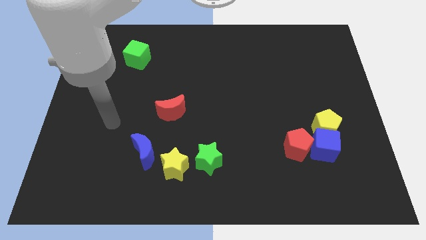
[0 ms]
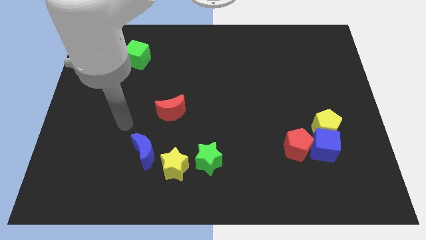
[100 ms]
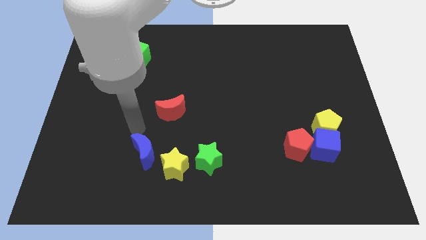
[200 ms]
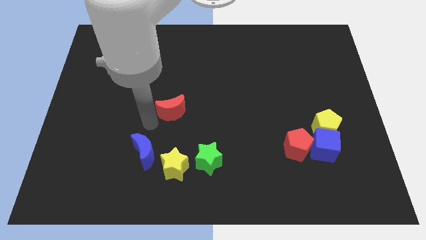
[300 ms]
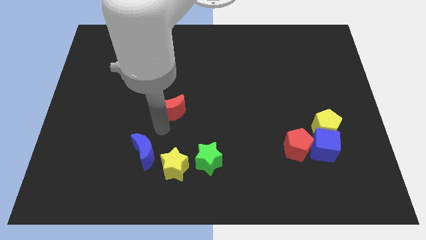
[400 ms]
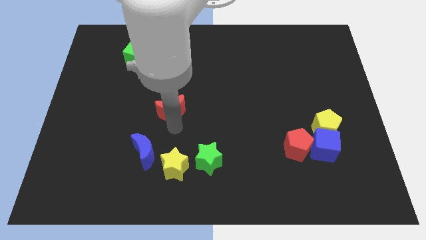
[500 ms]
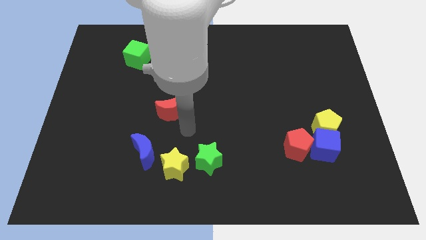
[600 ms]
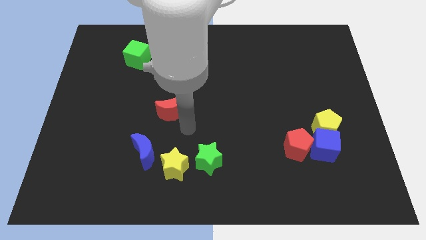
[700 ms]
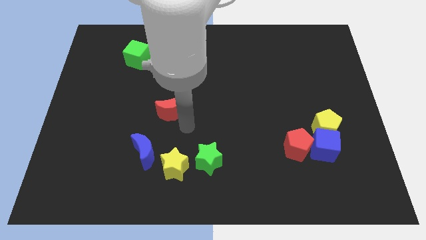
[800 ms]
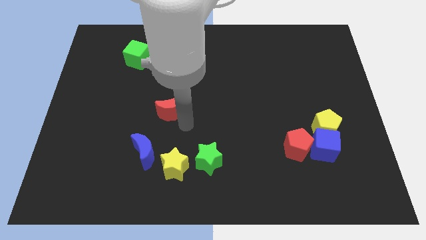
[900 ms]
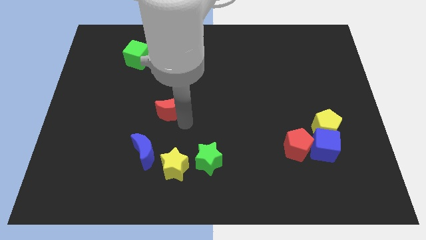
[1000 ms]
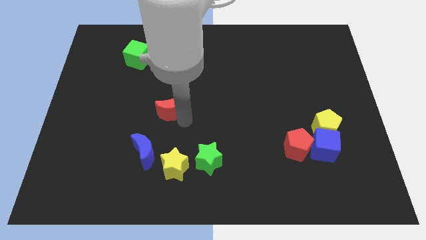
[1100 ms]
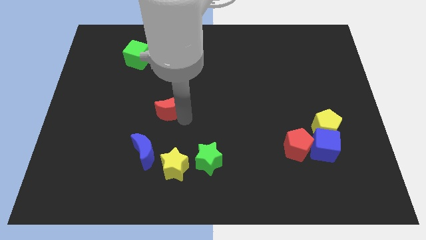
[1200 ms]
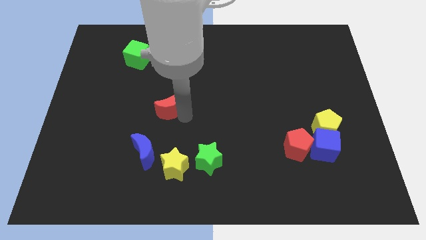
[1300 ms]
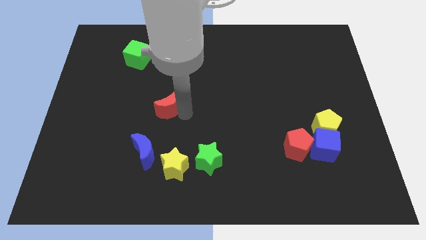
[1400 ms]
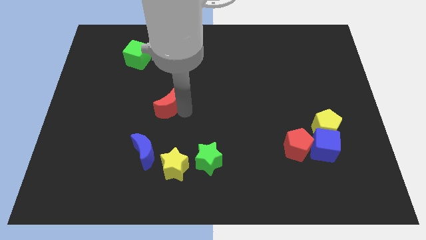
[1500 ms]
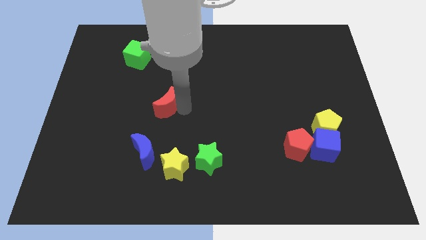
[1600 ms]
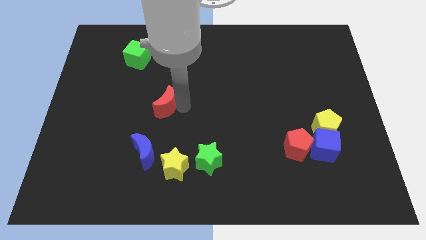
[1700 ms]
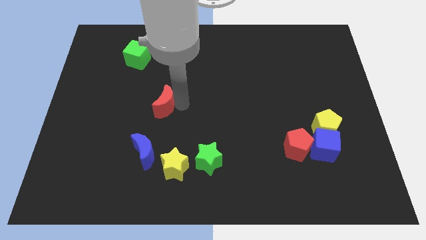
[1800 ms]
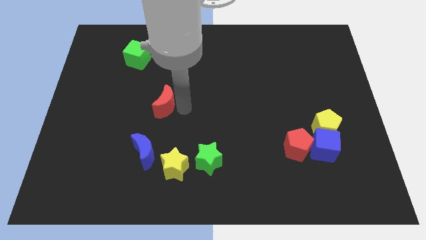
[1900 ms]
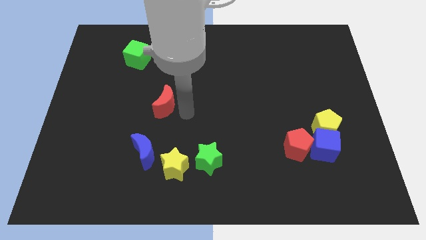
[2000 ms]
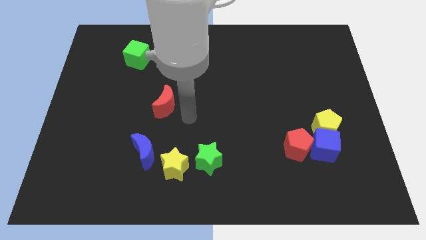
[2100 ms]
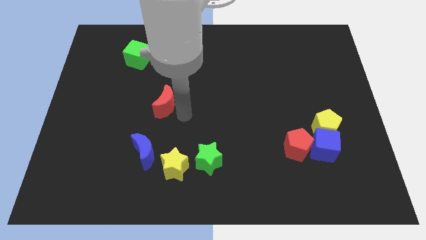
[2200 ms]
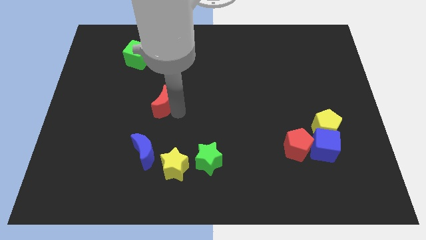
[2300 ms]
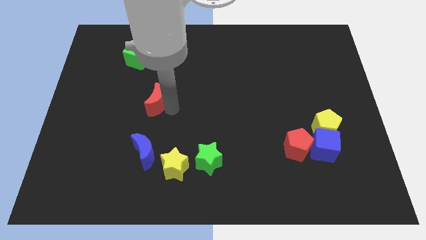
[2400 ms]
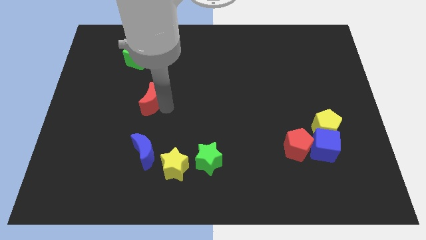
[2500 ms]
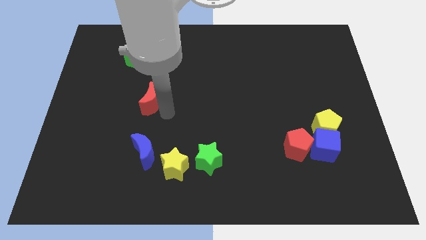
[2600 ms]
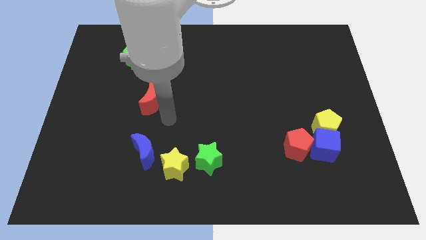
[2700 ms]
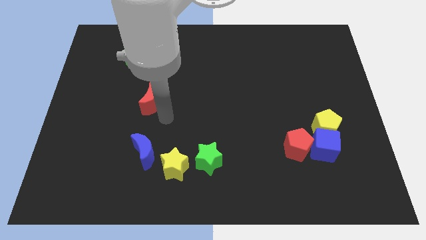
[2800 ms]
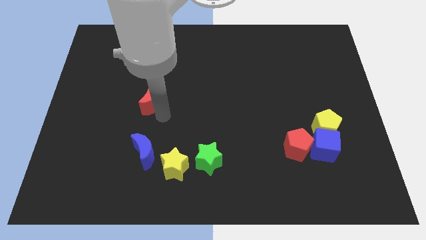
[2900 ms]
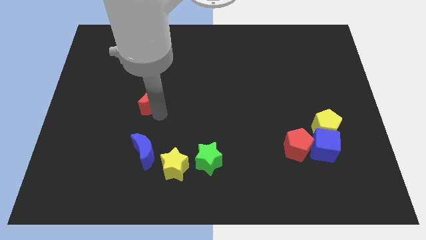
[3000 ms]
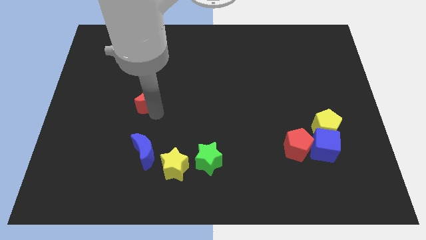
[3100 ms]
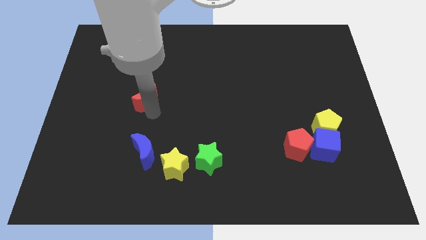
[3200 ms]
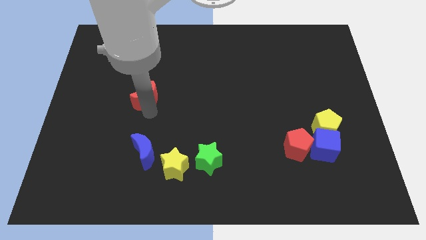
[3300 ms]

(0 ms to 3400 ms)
slide the red moon a little upwards and left

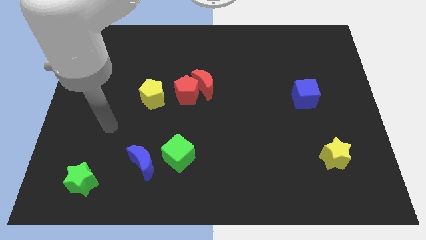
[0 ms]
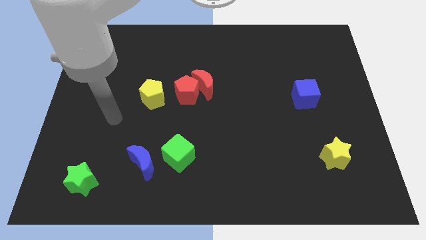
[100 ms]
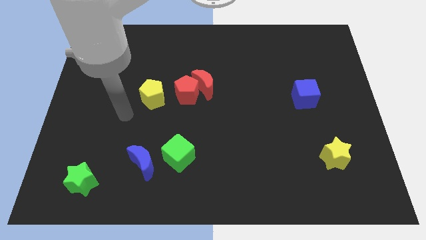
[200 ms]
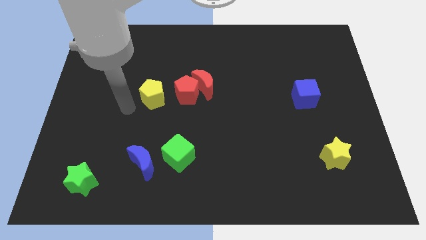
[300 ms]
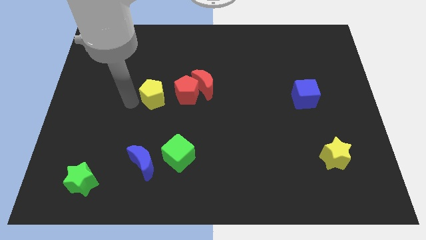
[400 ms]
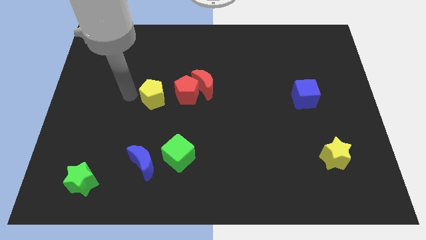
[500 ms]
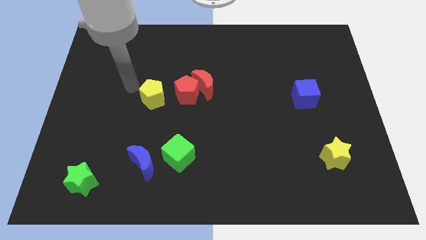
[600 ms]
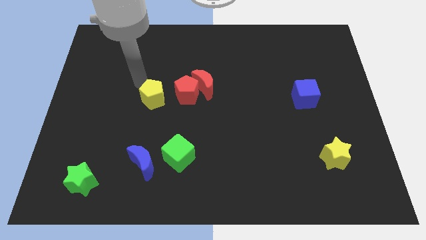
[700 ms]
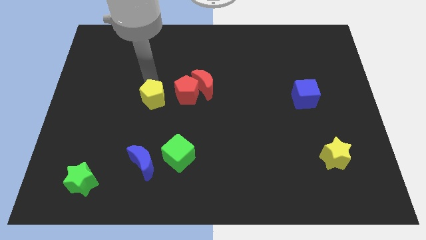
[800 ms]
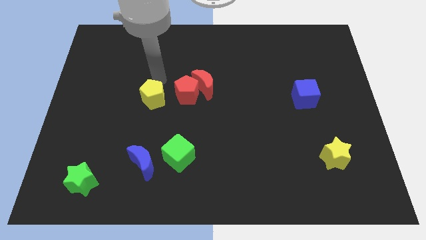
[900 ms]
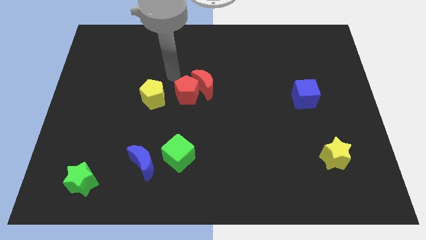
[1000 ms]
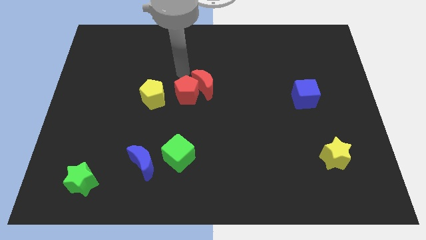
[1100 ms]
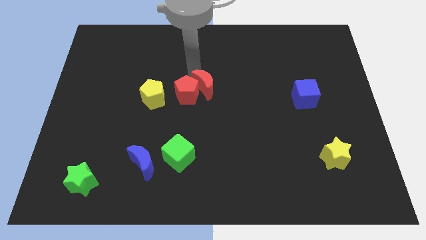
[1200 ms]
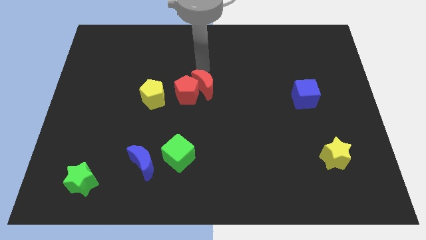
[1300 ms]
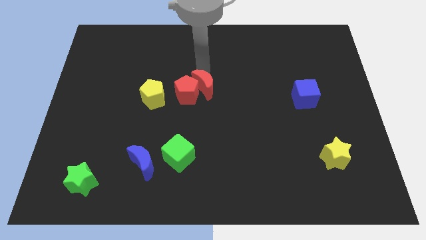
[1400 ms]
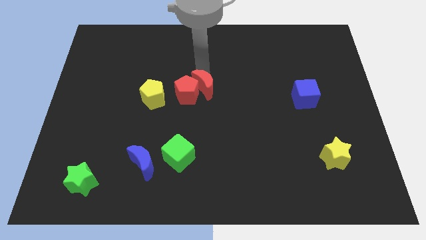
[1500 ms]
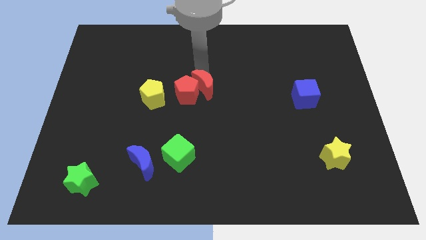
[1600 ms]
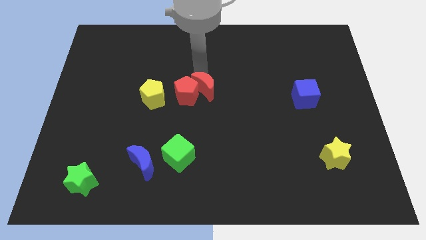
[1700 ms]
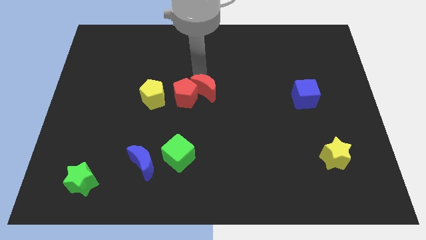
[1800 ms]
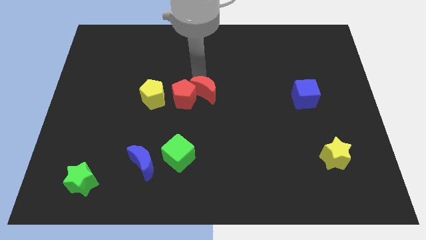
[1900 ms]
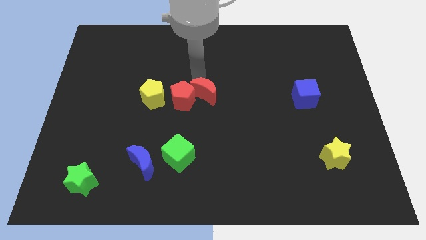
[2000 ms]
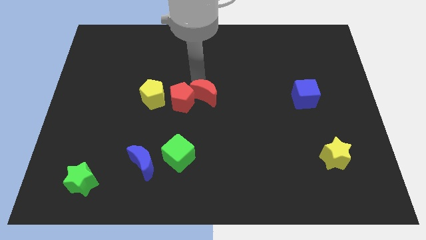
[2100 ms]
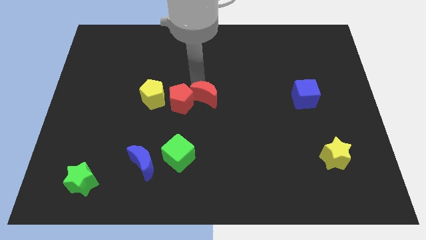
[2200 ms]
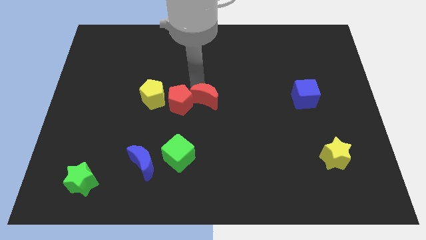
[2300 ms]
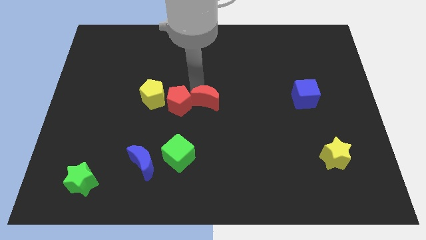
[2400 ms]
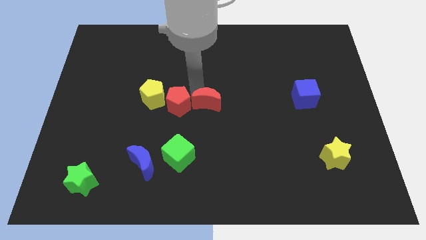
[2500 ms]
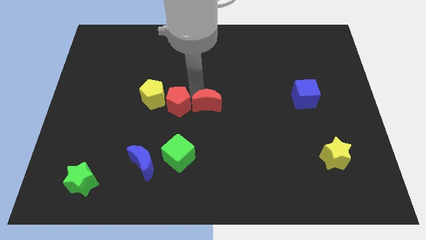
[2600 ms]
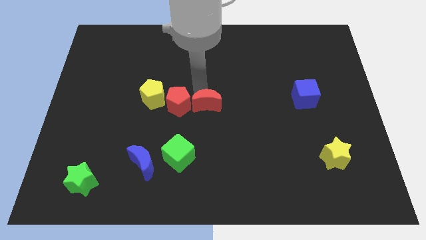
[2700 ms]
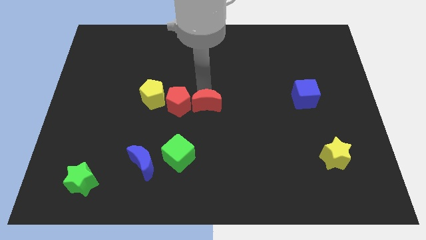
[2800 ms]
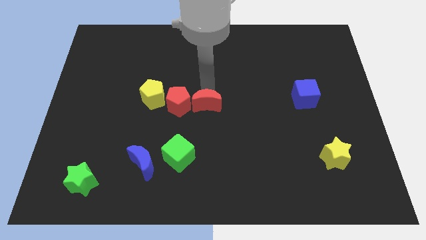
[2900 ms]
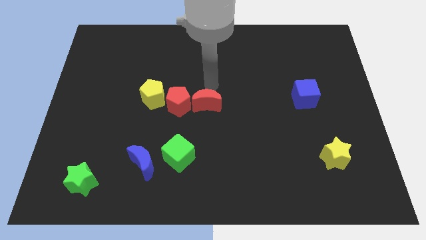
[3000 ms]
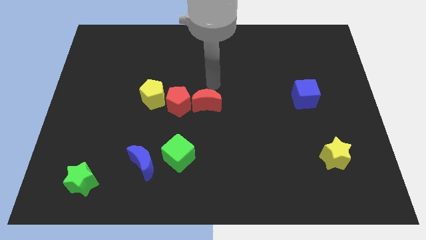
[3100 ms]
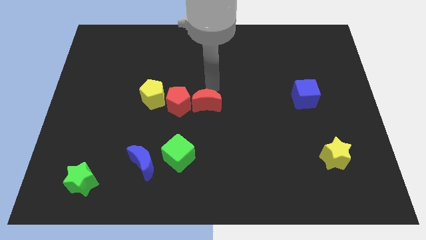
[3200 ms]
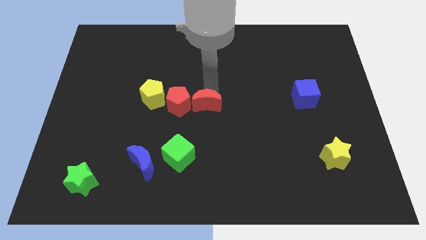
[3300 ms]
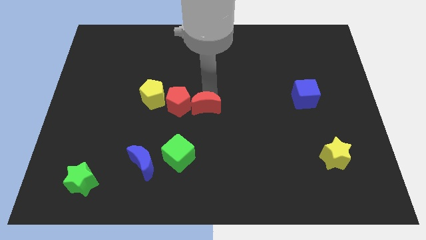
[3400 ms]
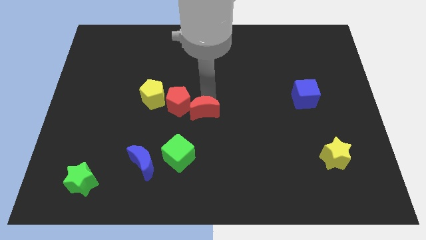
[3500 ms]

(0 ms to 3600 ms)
push the red moon a little bit down

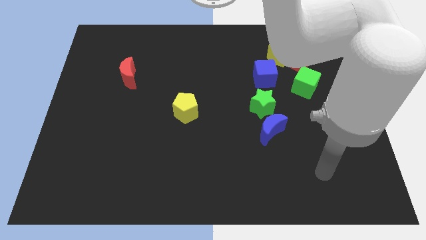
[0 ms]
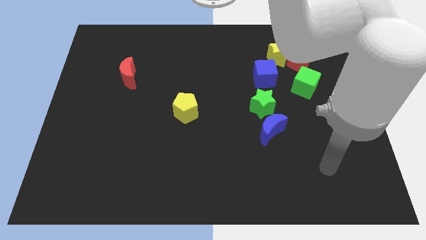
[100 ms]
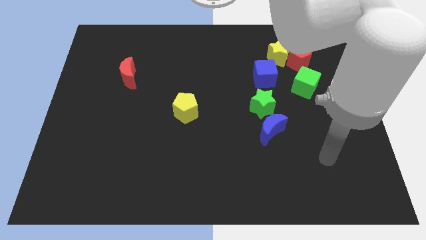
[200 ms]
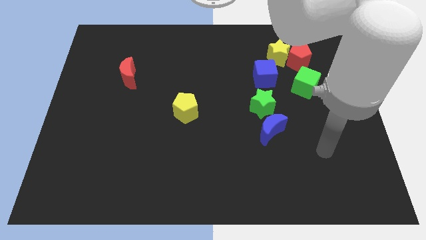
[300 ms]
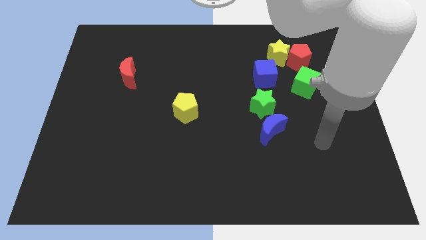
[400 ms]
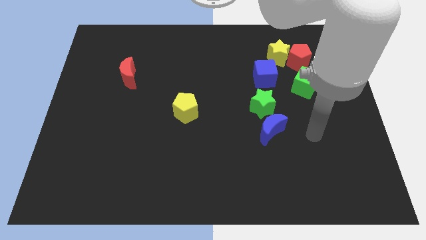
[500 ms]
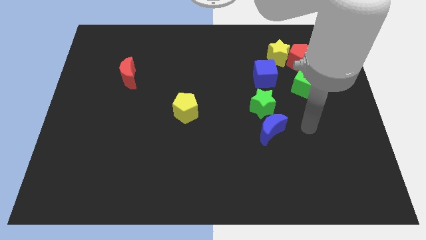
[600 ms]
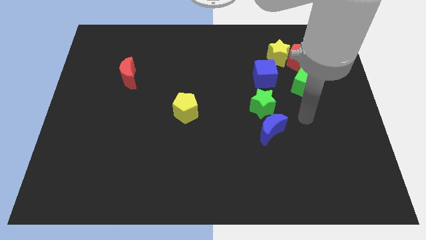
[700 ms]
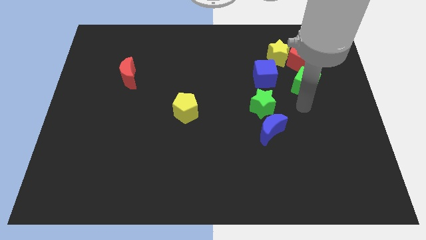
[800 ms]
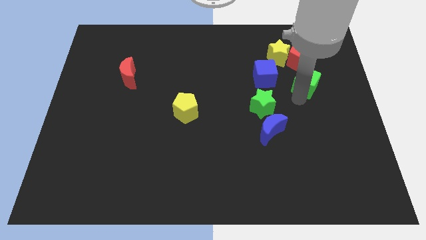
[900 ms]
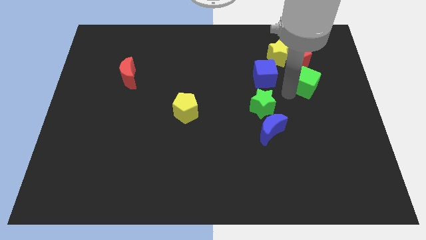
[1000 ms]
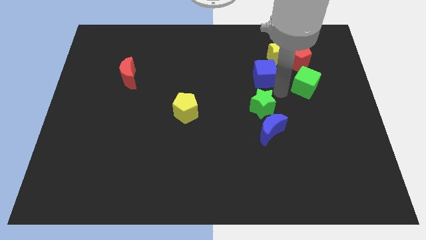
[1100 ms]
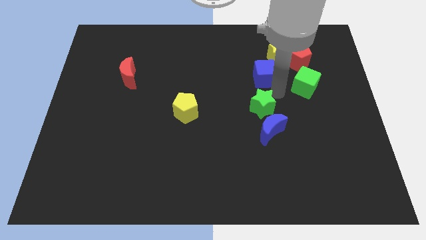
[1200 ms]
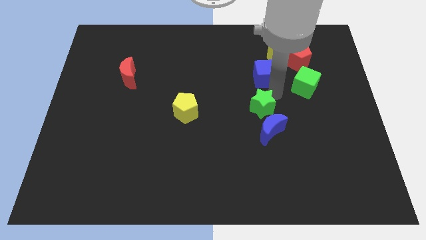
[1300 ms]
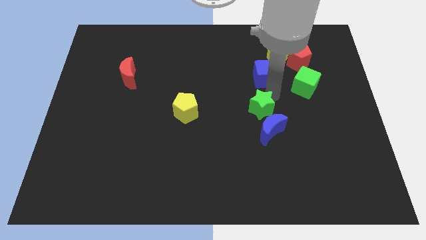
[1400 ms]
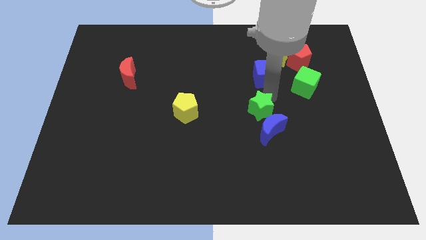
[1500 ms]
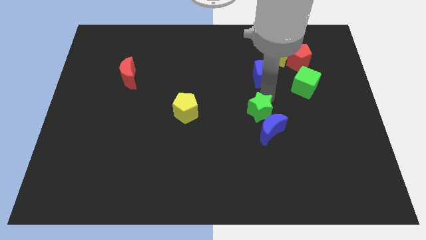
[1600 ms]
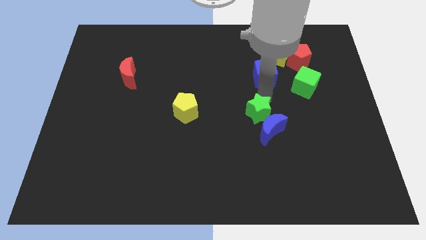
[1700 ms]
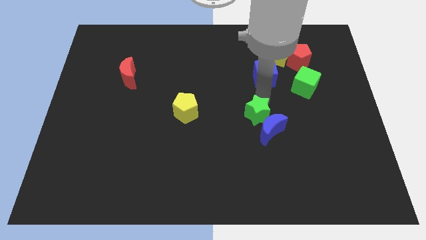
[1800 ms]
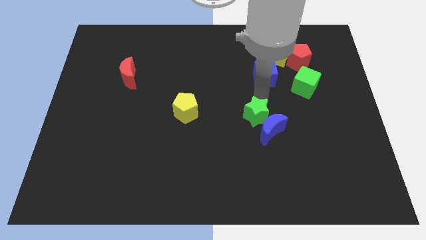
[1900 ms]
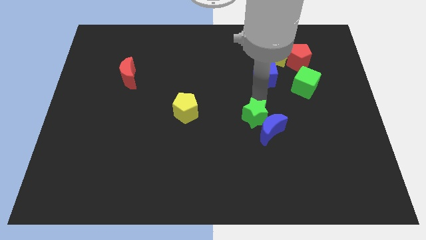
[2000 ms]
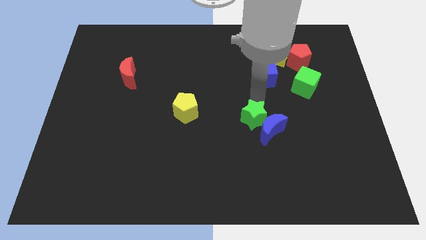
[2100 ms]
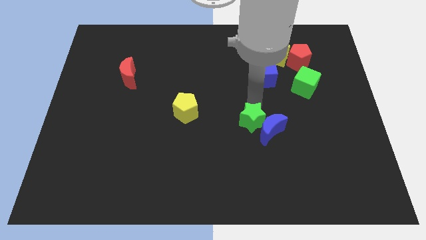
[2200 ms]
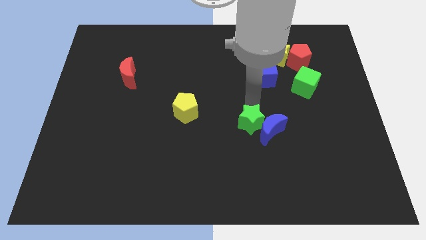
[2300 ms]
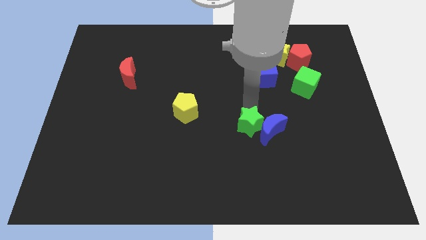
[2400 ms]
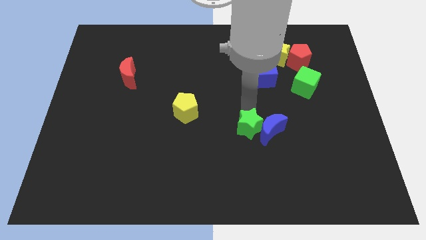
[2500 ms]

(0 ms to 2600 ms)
move the green star slightly down and then to the left
